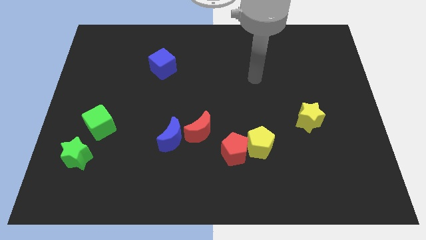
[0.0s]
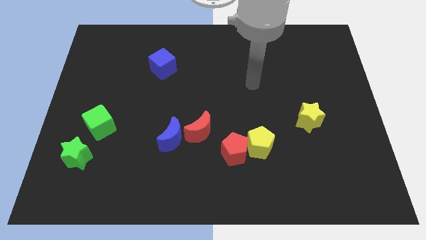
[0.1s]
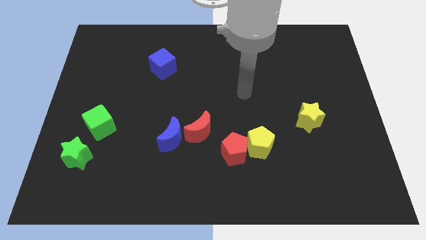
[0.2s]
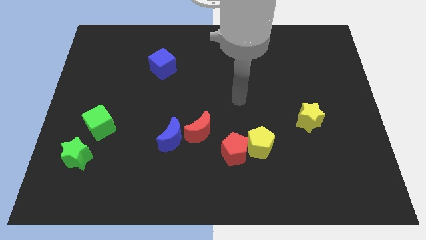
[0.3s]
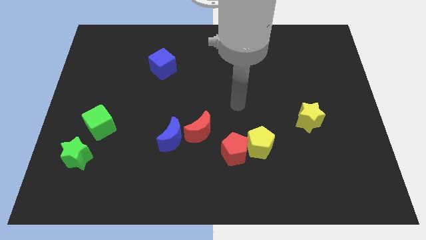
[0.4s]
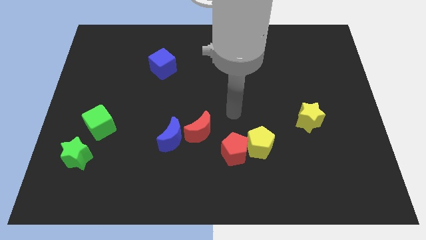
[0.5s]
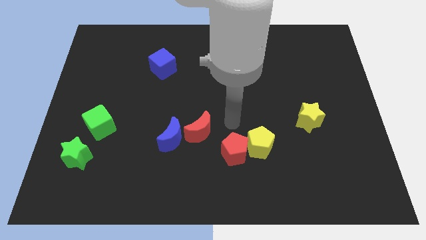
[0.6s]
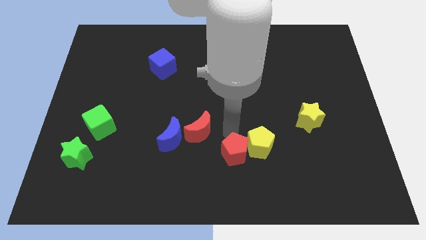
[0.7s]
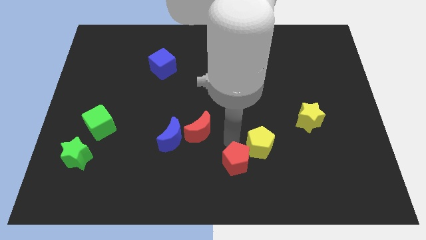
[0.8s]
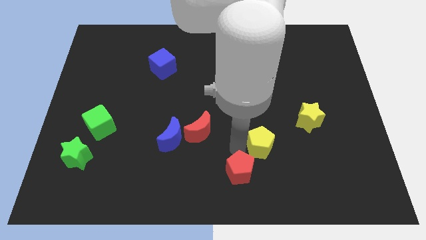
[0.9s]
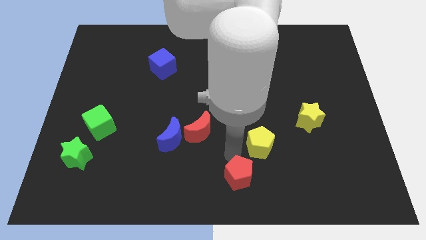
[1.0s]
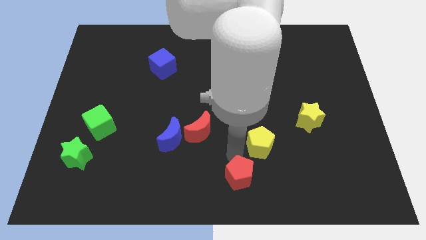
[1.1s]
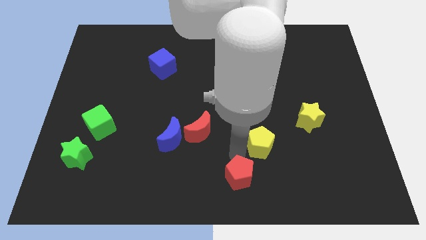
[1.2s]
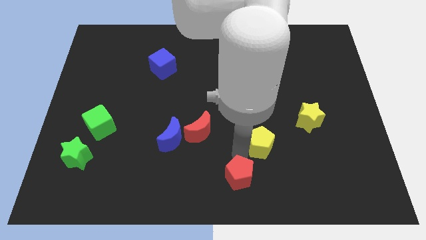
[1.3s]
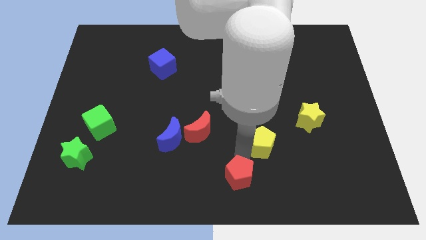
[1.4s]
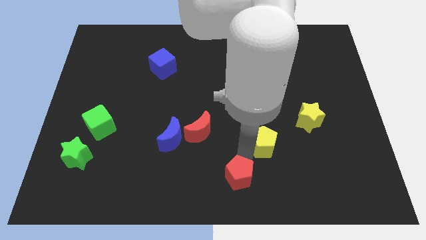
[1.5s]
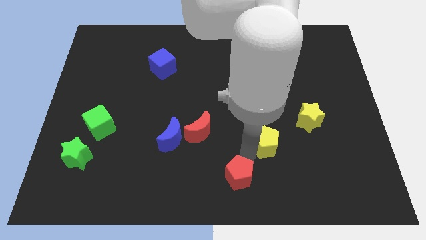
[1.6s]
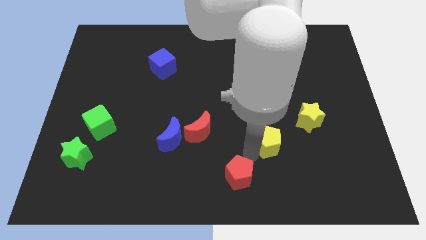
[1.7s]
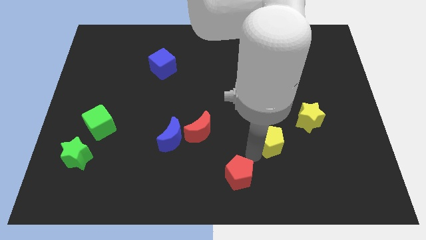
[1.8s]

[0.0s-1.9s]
separate the yellow pentagon from the red pentagon

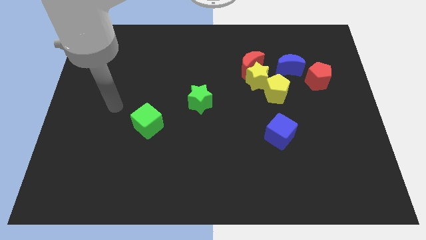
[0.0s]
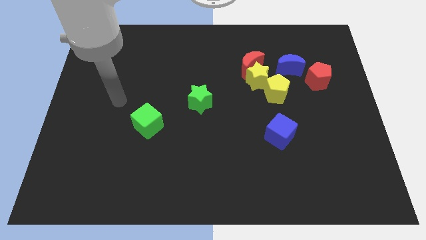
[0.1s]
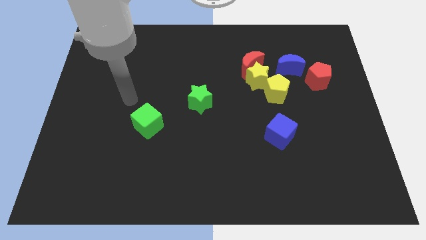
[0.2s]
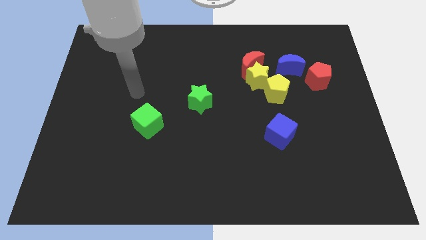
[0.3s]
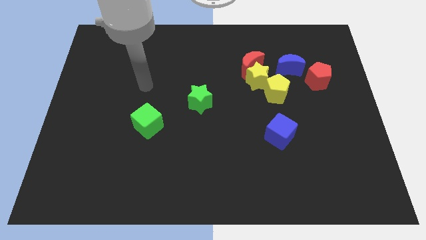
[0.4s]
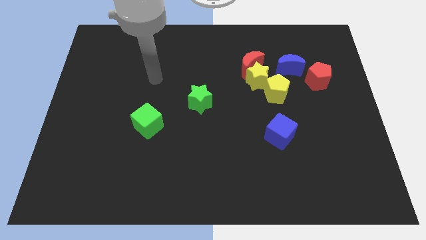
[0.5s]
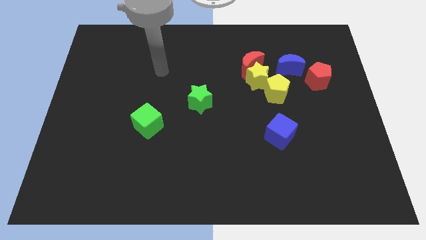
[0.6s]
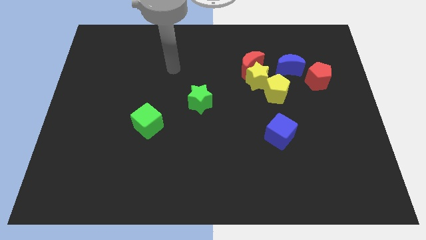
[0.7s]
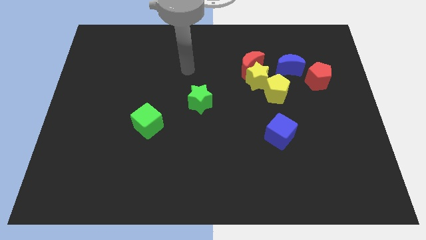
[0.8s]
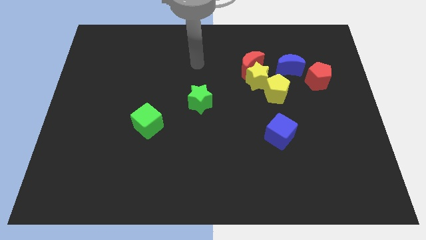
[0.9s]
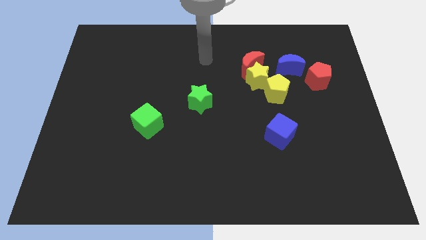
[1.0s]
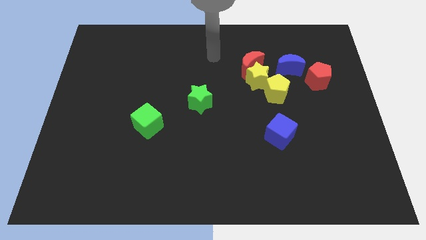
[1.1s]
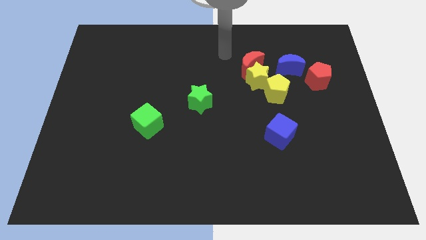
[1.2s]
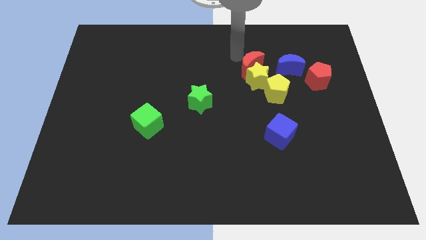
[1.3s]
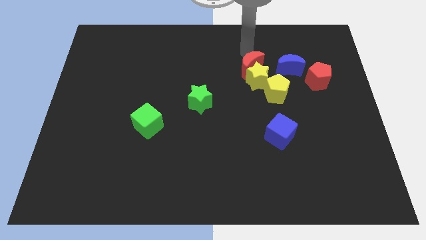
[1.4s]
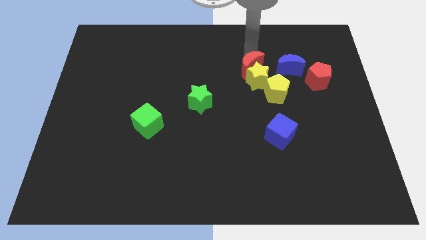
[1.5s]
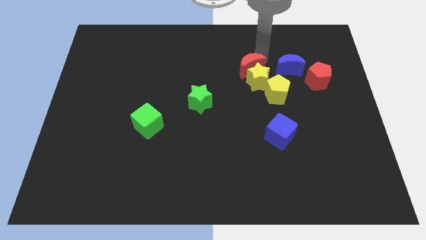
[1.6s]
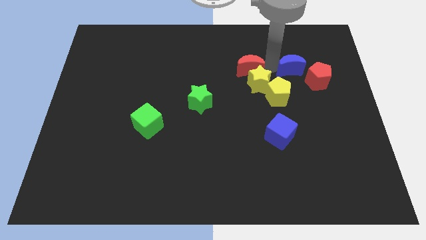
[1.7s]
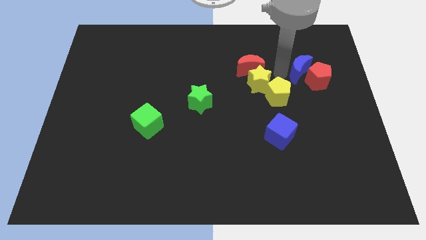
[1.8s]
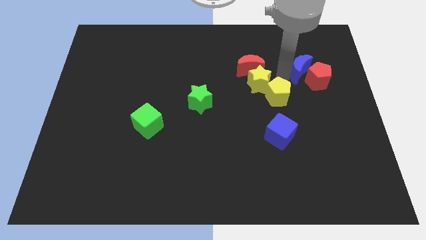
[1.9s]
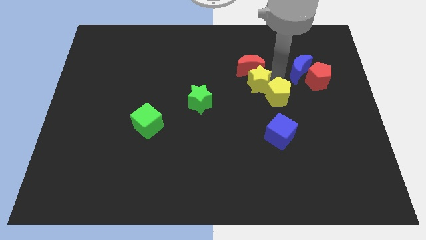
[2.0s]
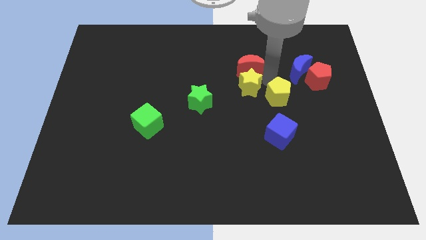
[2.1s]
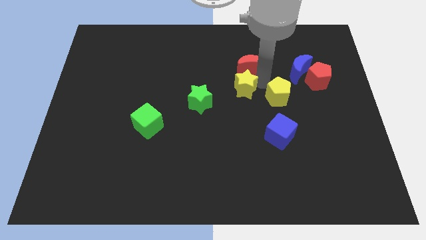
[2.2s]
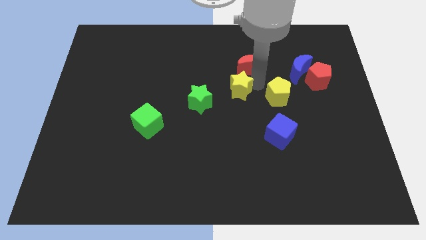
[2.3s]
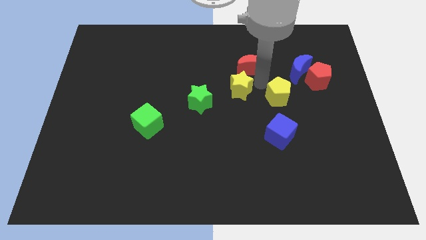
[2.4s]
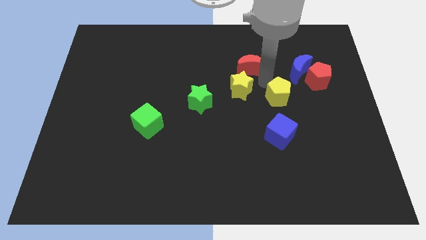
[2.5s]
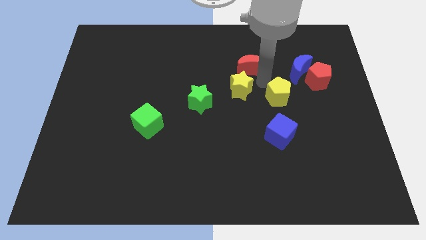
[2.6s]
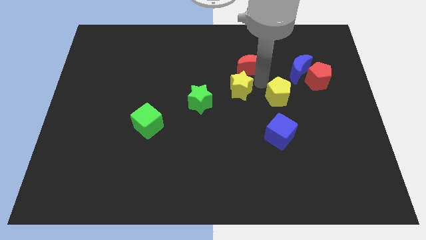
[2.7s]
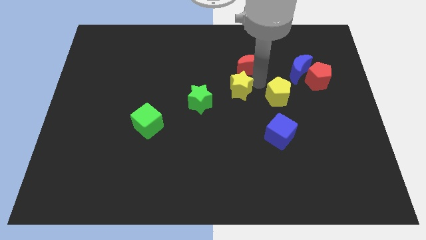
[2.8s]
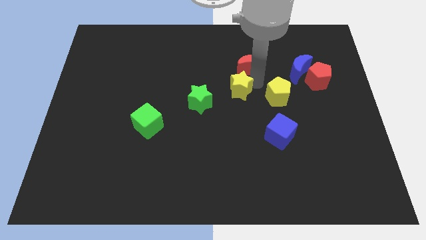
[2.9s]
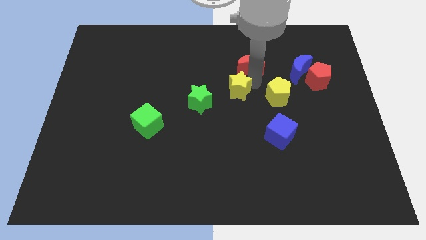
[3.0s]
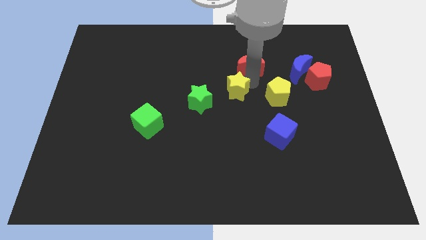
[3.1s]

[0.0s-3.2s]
move the yellow star away from the red moon, yellow pentagon, and blue moon

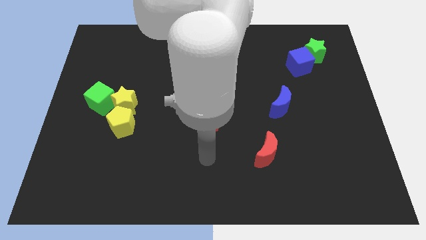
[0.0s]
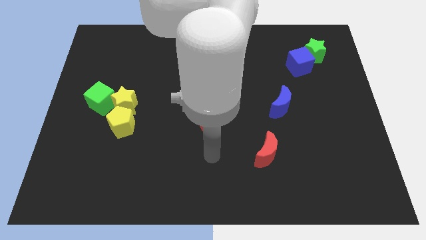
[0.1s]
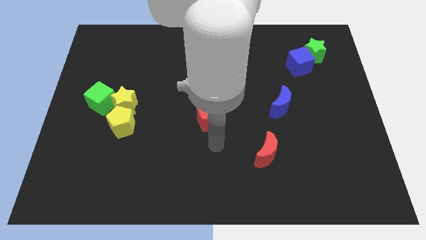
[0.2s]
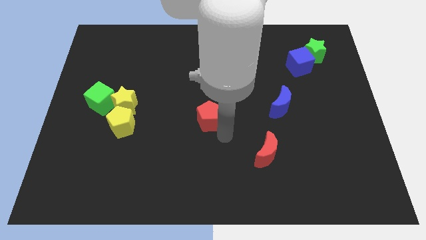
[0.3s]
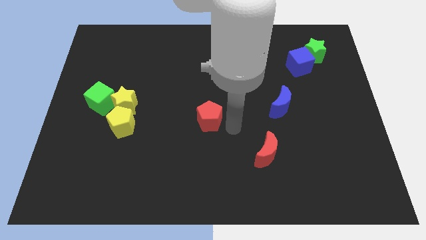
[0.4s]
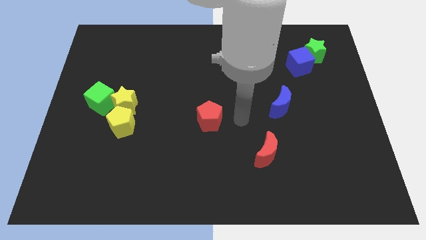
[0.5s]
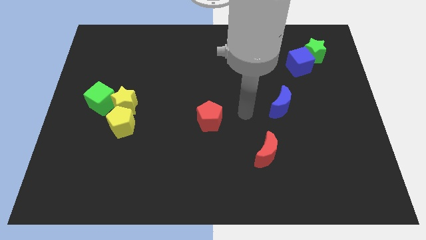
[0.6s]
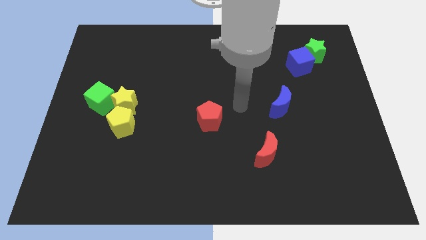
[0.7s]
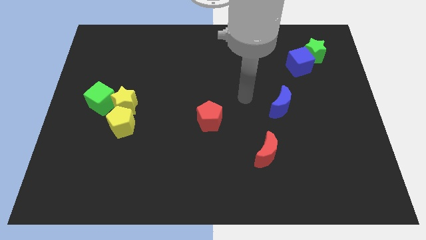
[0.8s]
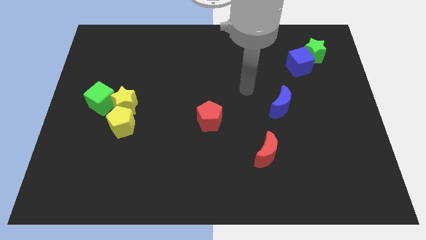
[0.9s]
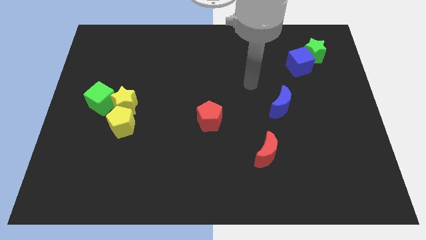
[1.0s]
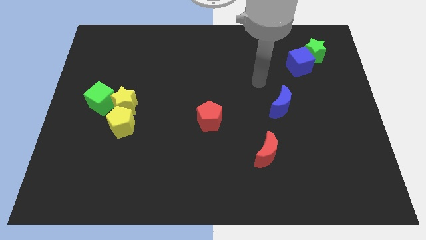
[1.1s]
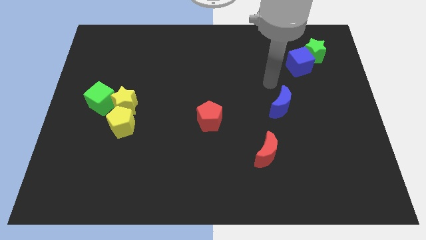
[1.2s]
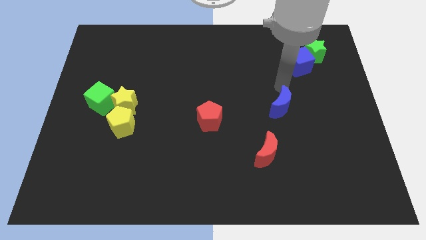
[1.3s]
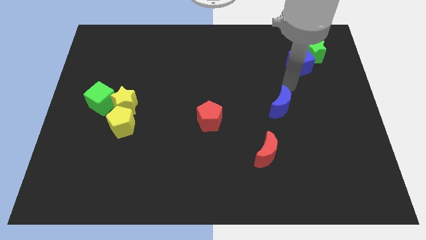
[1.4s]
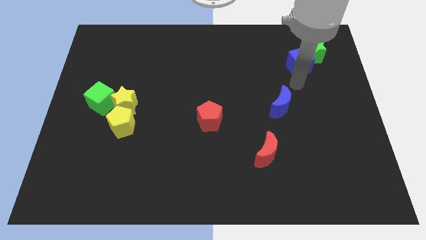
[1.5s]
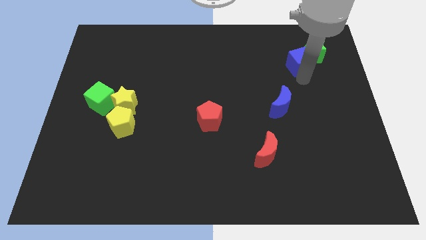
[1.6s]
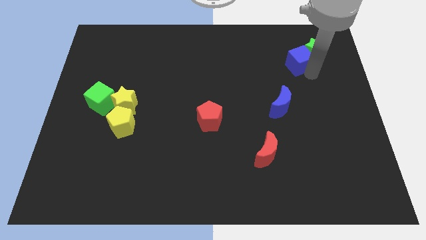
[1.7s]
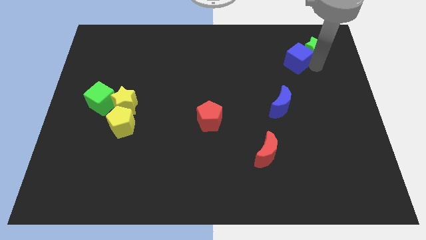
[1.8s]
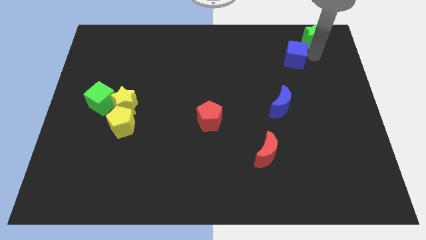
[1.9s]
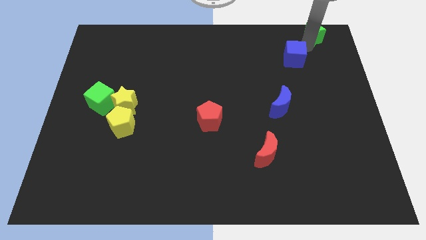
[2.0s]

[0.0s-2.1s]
separate the blue cube from the green star

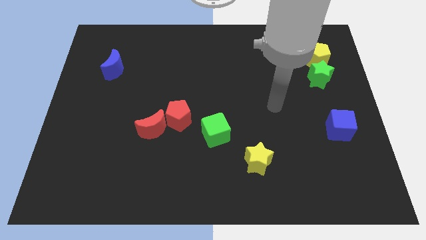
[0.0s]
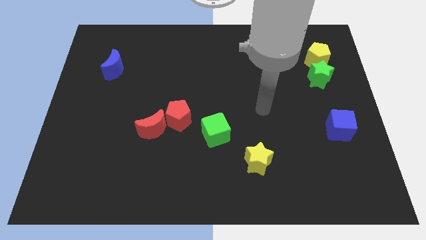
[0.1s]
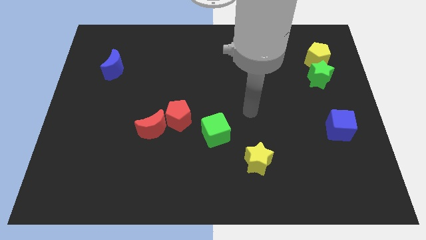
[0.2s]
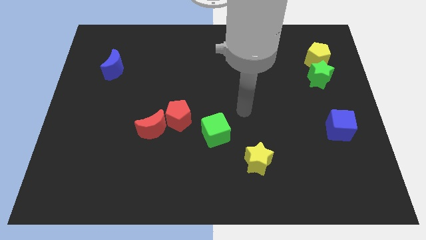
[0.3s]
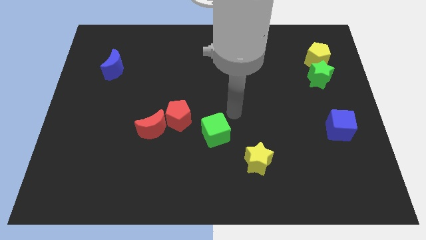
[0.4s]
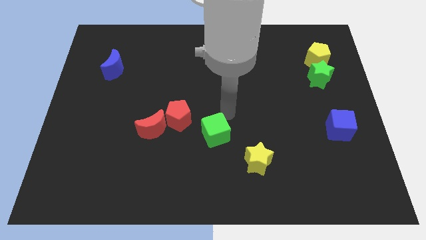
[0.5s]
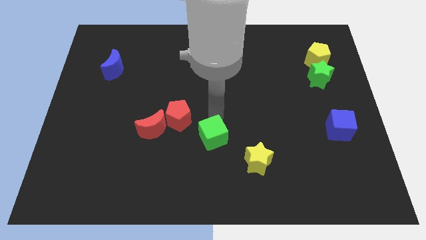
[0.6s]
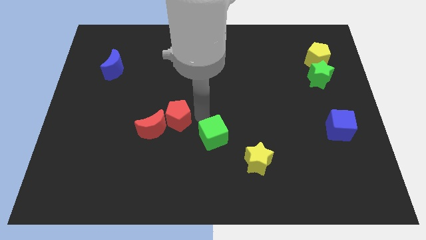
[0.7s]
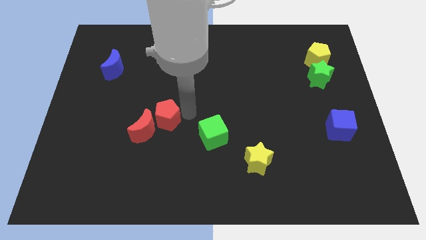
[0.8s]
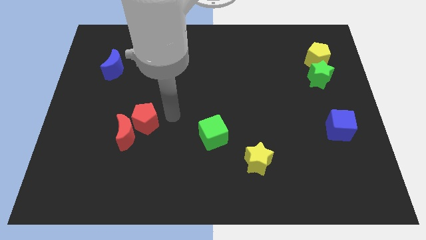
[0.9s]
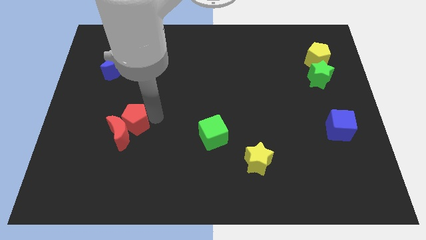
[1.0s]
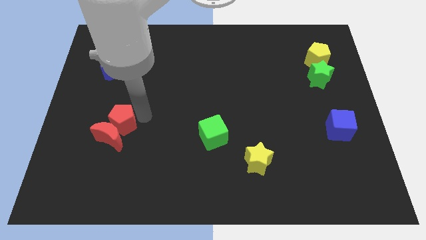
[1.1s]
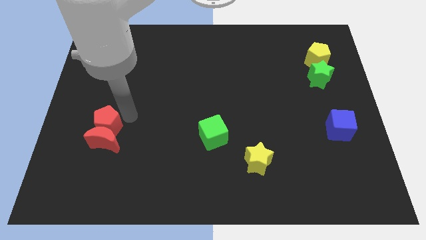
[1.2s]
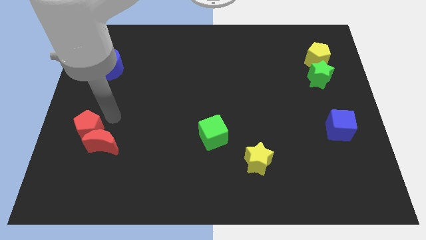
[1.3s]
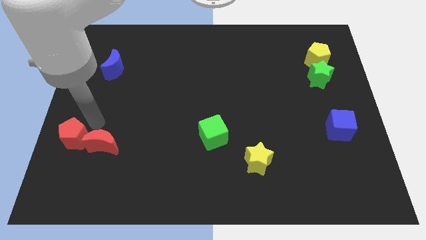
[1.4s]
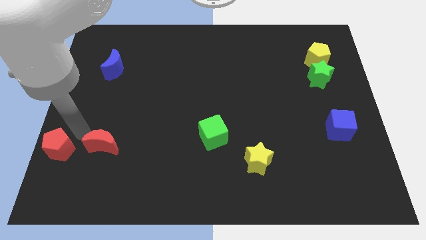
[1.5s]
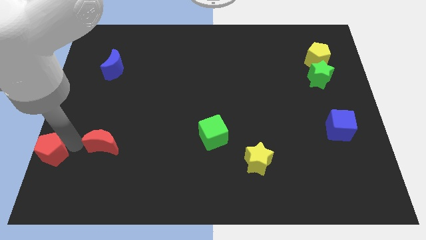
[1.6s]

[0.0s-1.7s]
separate the red moon from the red pentagon

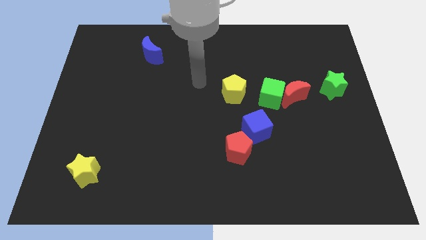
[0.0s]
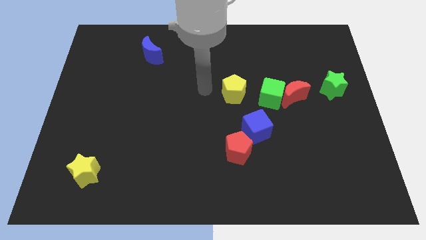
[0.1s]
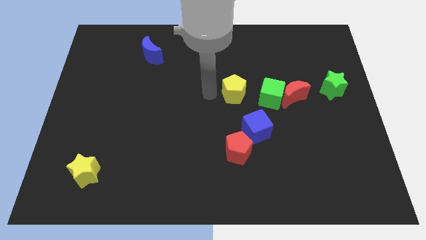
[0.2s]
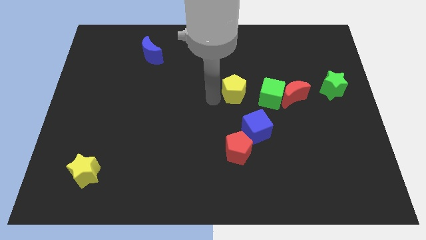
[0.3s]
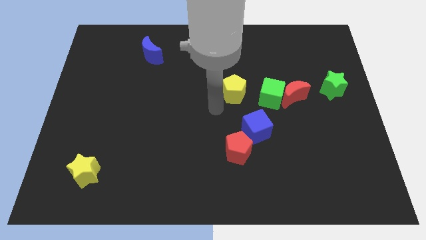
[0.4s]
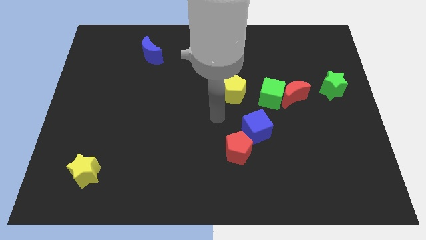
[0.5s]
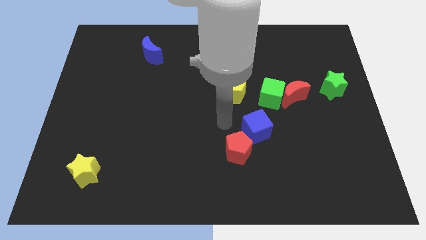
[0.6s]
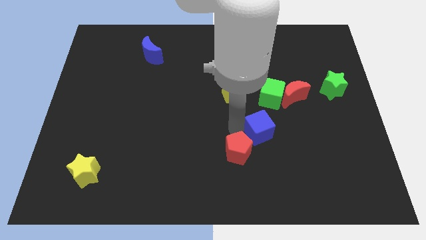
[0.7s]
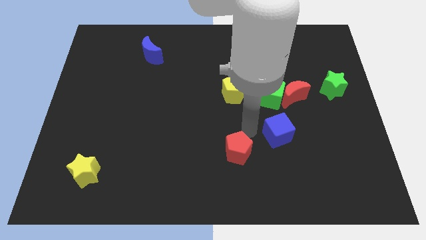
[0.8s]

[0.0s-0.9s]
move the red pentagon away from the blue cube
